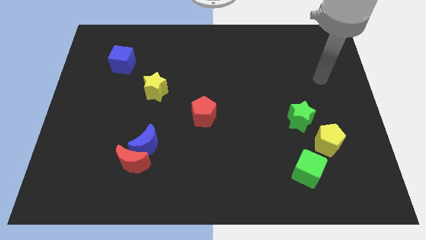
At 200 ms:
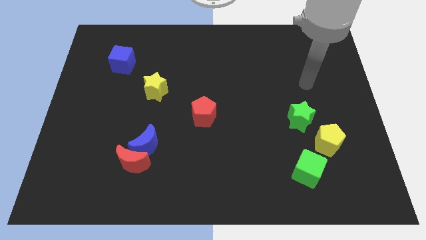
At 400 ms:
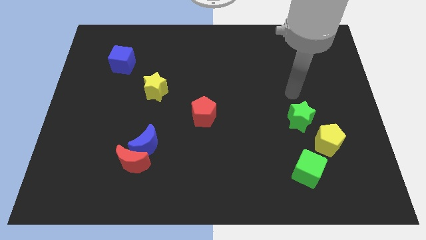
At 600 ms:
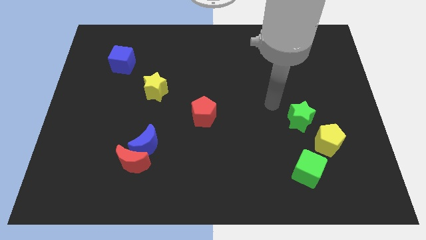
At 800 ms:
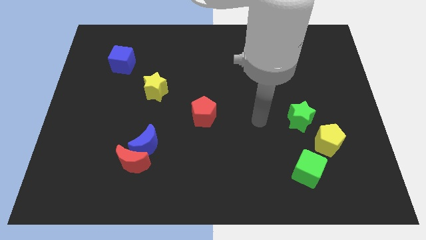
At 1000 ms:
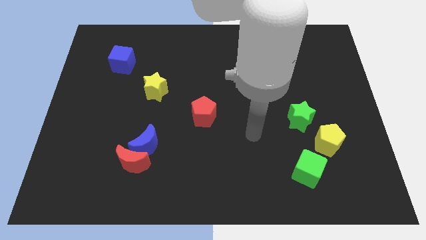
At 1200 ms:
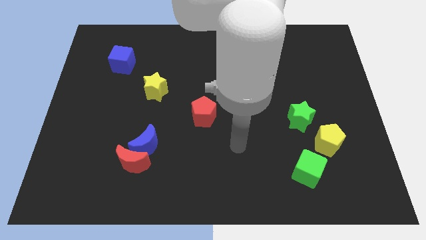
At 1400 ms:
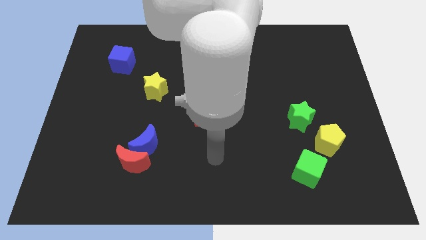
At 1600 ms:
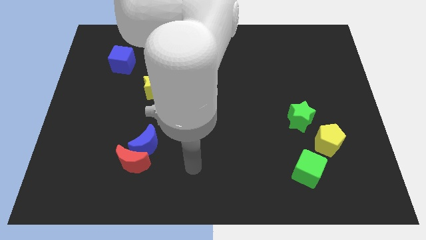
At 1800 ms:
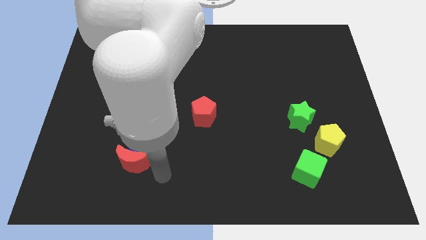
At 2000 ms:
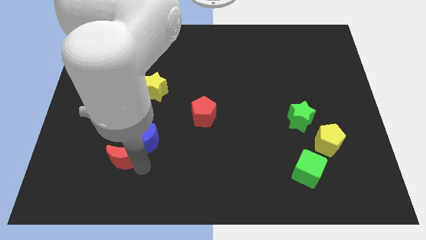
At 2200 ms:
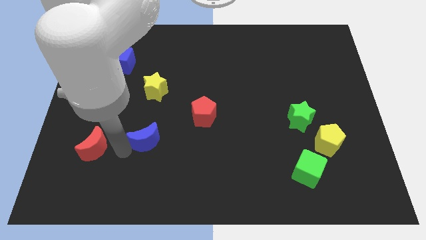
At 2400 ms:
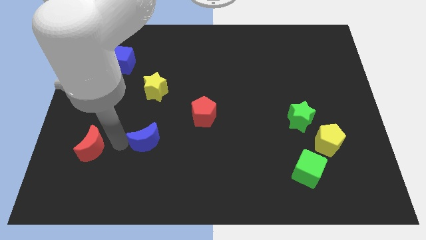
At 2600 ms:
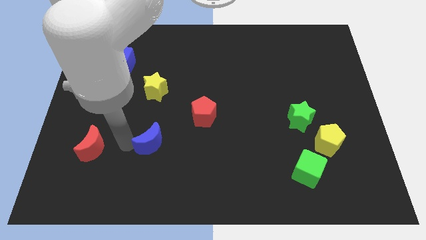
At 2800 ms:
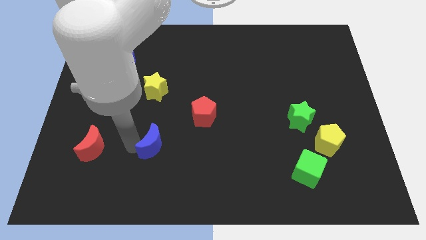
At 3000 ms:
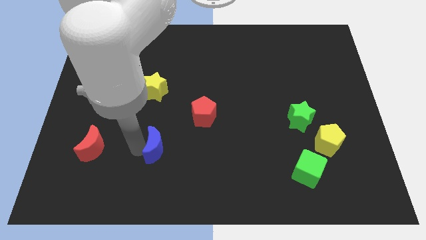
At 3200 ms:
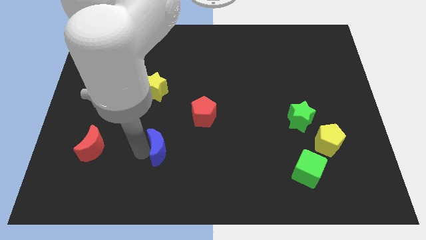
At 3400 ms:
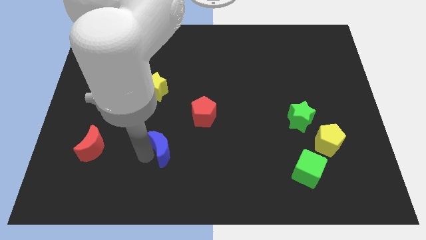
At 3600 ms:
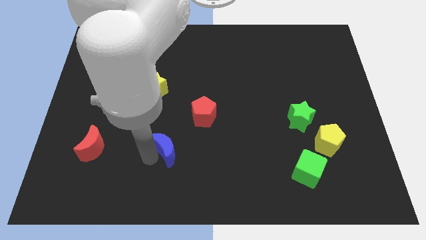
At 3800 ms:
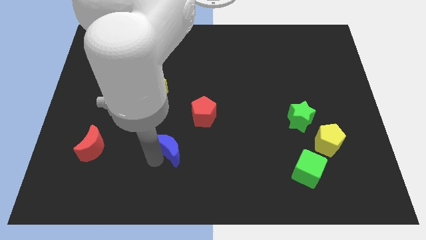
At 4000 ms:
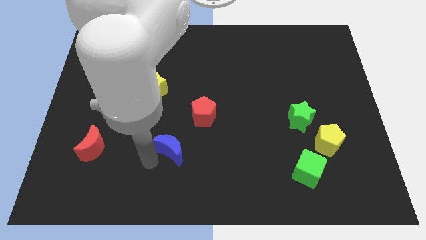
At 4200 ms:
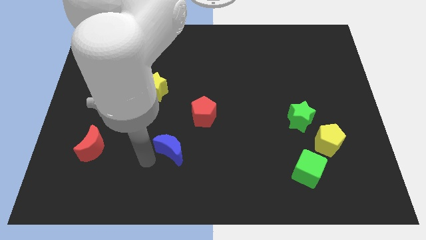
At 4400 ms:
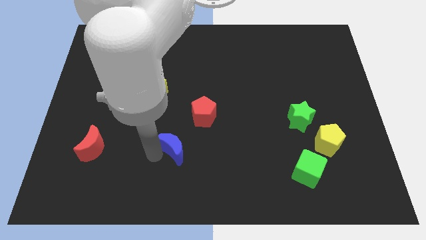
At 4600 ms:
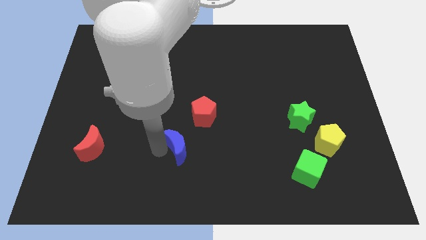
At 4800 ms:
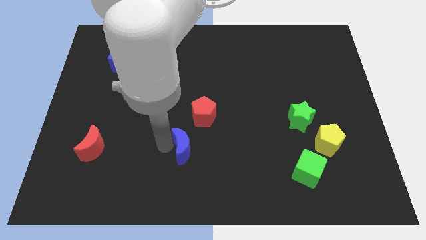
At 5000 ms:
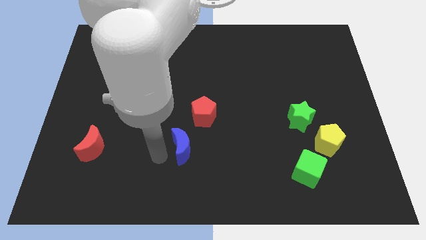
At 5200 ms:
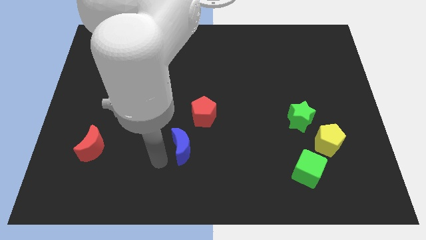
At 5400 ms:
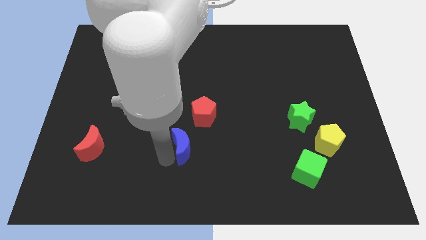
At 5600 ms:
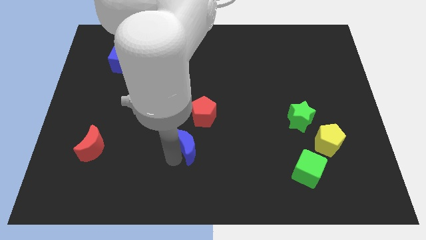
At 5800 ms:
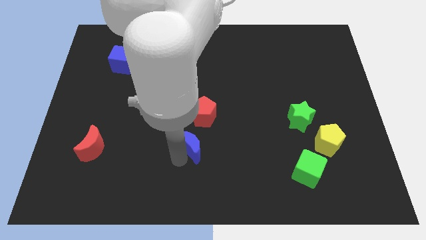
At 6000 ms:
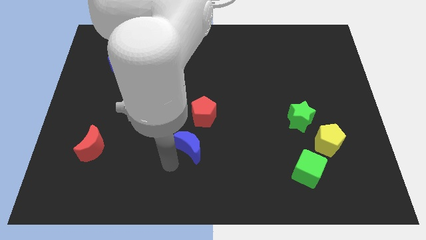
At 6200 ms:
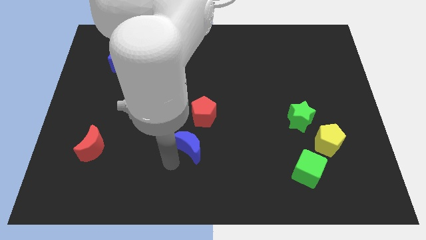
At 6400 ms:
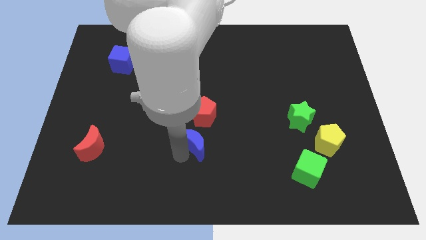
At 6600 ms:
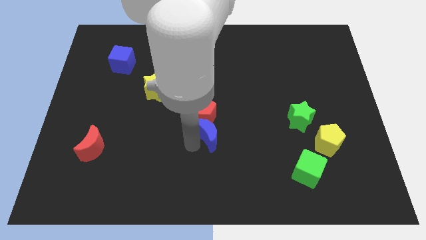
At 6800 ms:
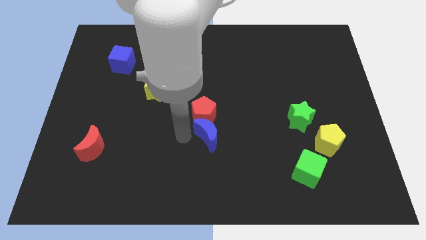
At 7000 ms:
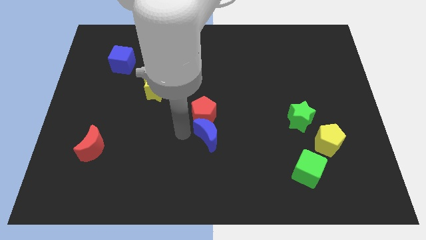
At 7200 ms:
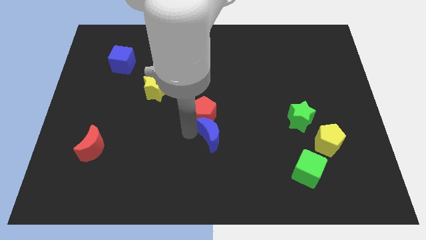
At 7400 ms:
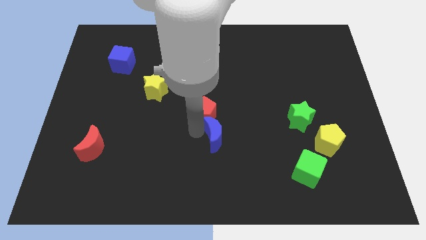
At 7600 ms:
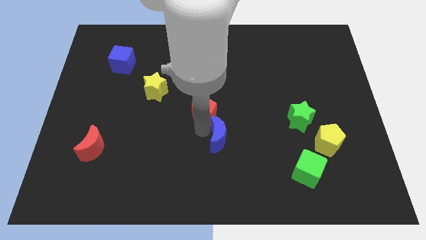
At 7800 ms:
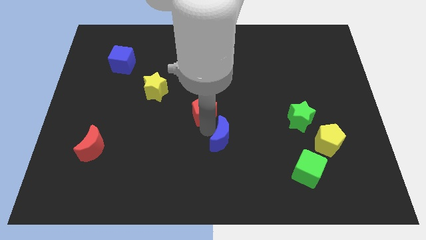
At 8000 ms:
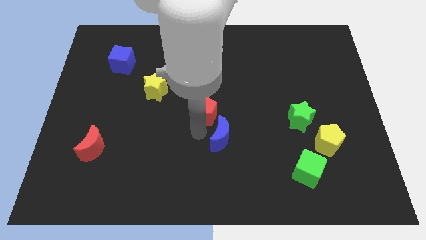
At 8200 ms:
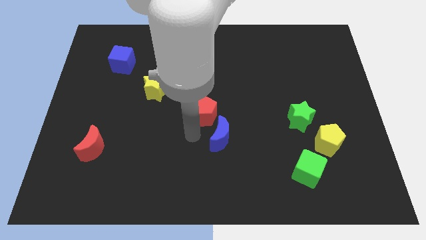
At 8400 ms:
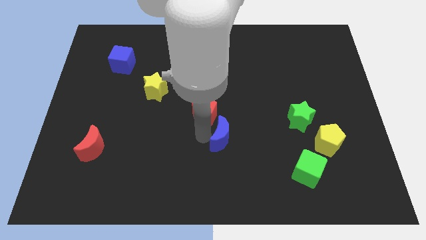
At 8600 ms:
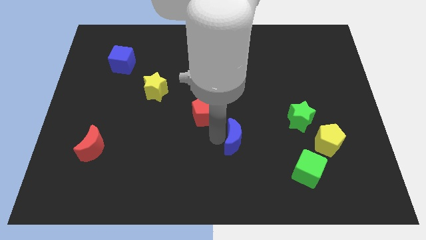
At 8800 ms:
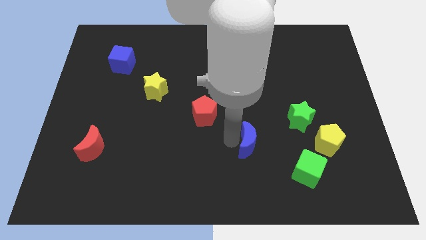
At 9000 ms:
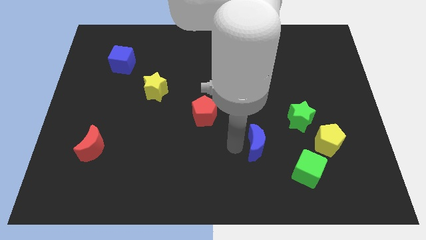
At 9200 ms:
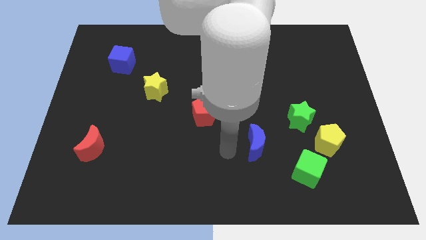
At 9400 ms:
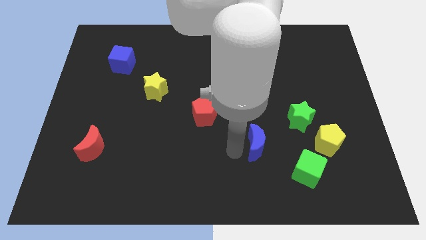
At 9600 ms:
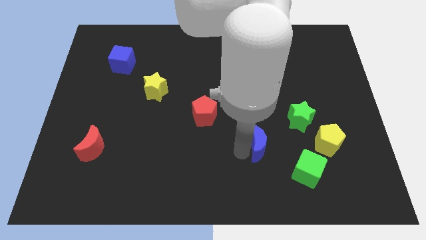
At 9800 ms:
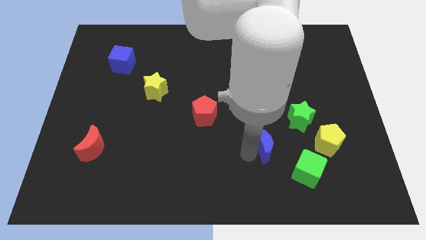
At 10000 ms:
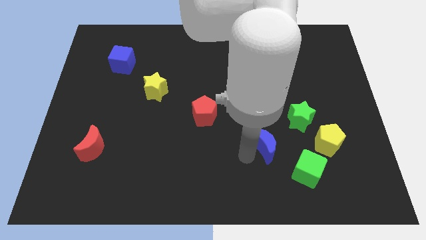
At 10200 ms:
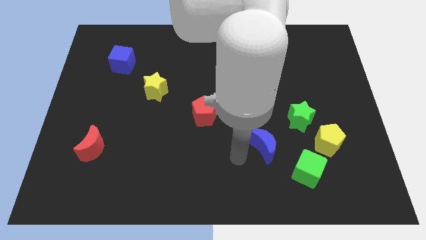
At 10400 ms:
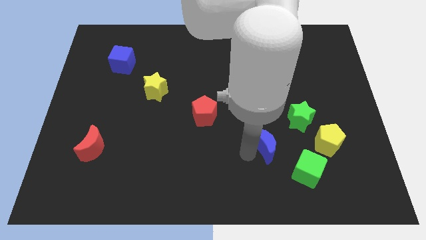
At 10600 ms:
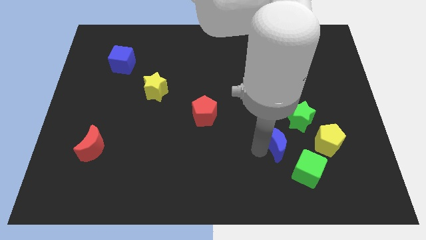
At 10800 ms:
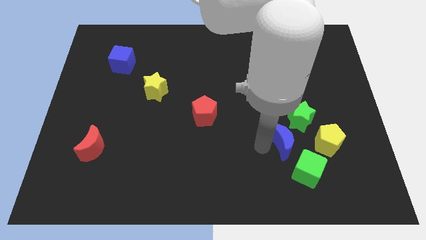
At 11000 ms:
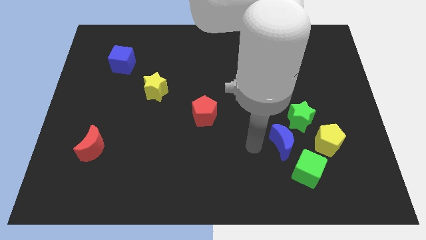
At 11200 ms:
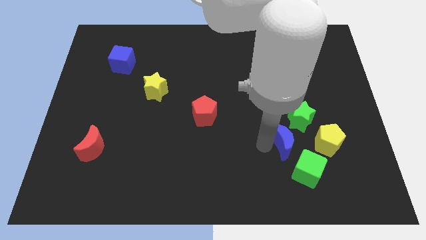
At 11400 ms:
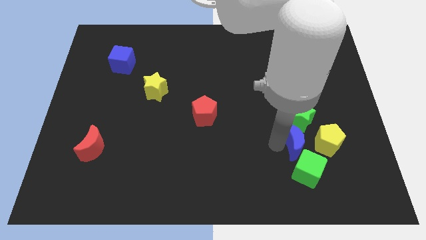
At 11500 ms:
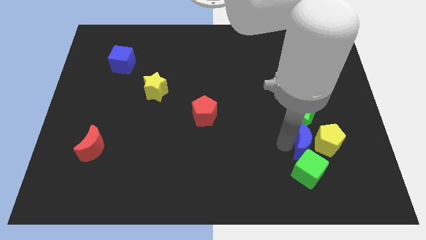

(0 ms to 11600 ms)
push the blue moon close to the yellow pentagon

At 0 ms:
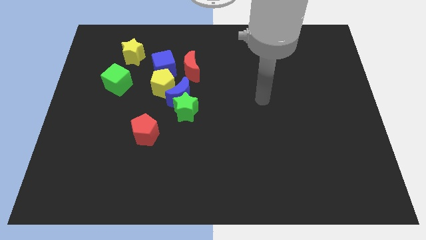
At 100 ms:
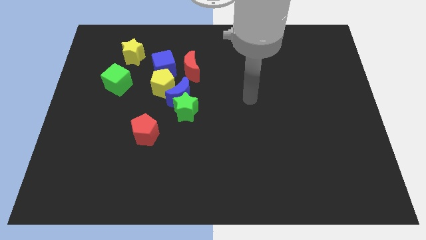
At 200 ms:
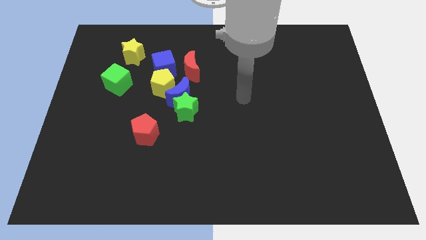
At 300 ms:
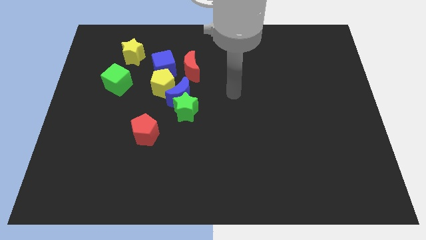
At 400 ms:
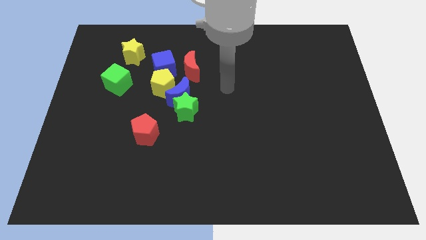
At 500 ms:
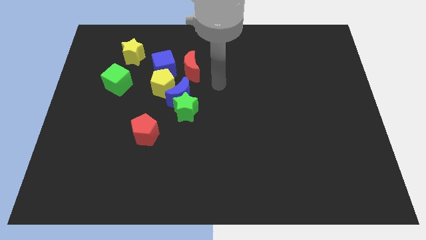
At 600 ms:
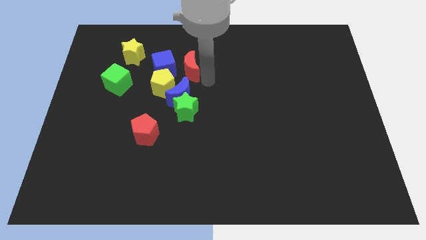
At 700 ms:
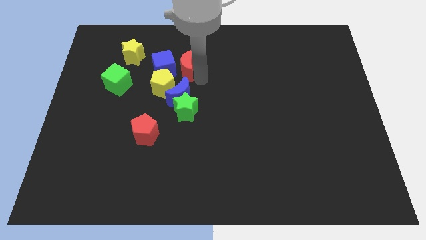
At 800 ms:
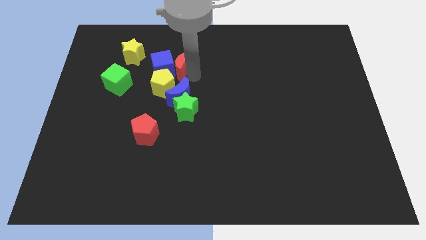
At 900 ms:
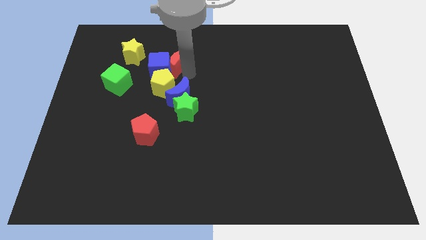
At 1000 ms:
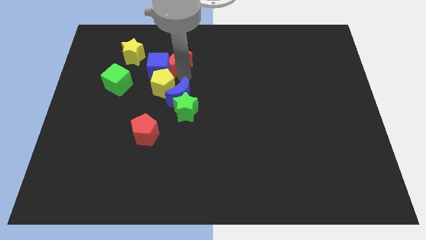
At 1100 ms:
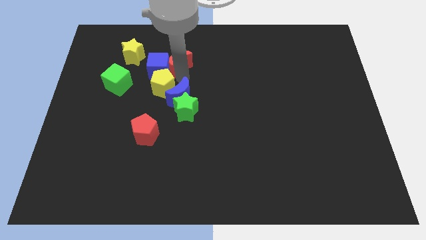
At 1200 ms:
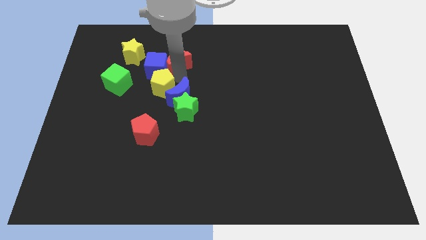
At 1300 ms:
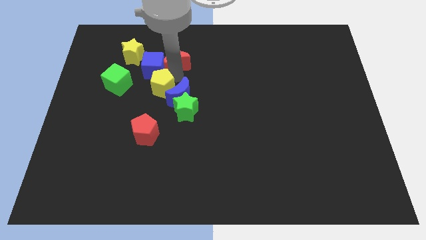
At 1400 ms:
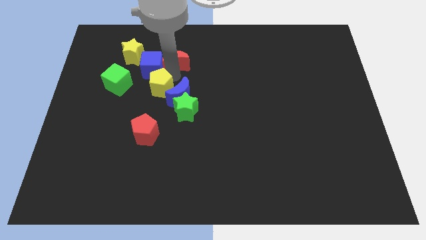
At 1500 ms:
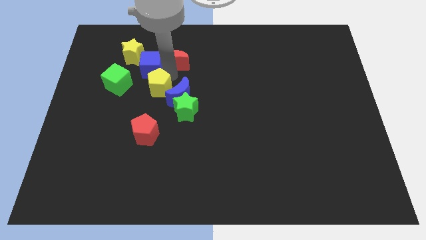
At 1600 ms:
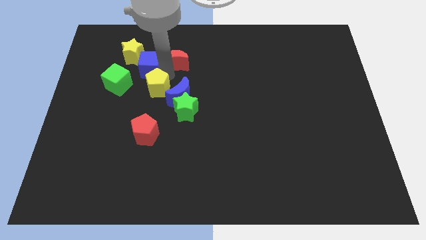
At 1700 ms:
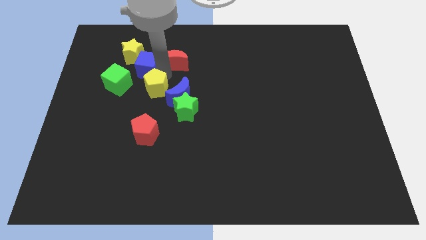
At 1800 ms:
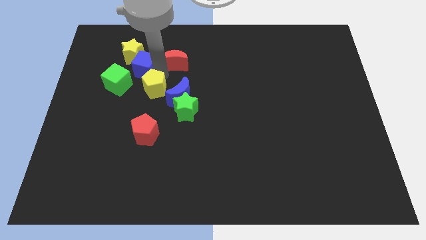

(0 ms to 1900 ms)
put the blue cube to the yellow star
